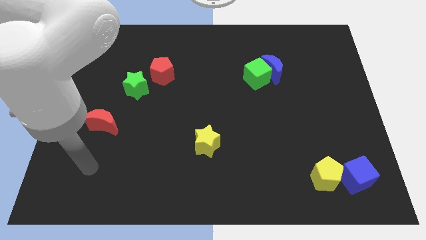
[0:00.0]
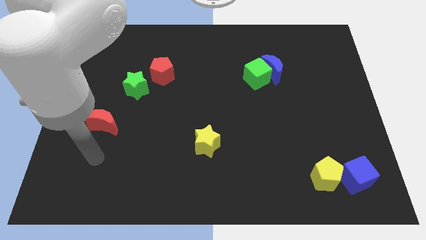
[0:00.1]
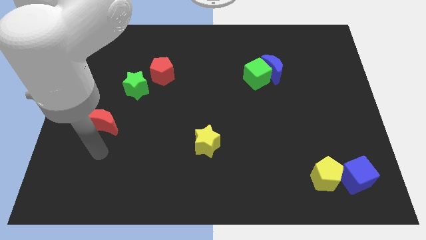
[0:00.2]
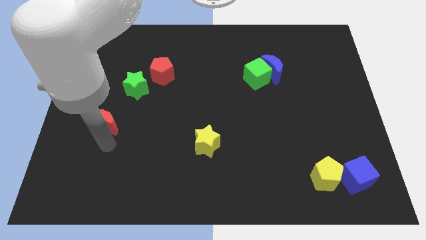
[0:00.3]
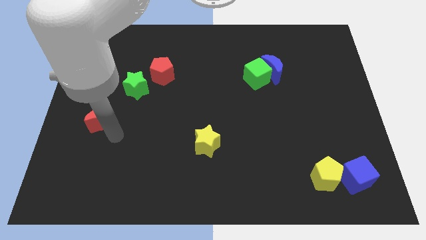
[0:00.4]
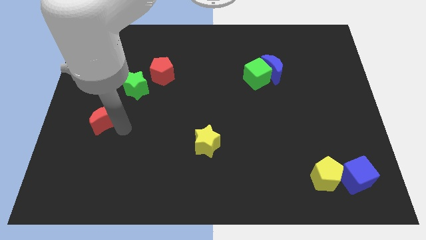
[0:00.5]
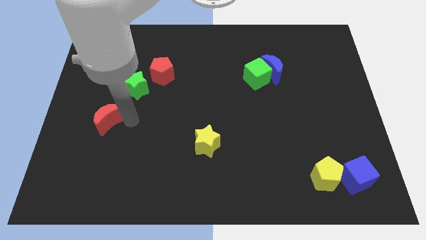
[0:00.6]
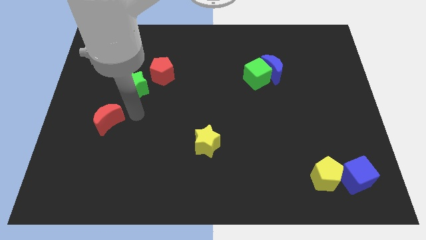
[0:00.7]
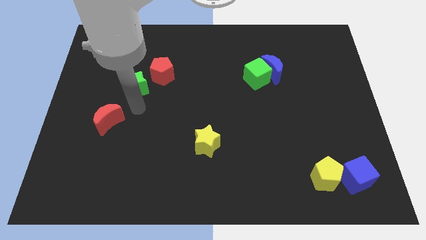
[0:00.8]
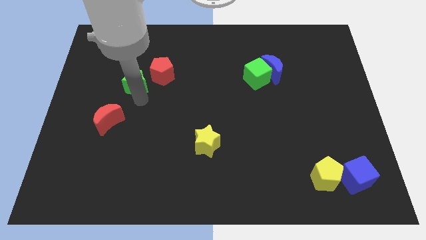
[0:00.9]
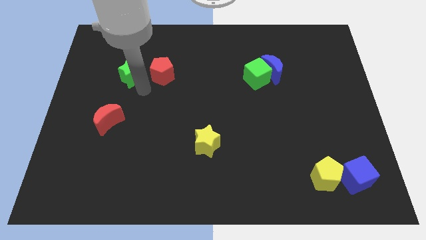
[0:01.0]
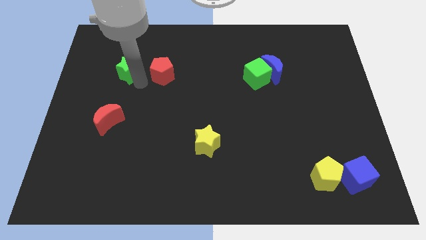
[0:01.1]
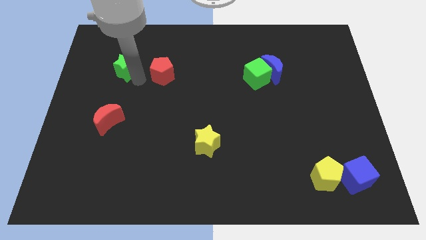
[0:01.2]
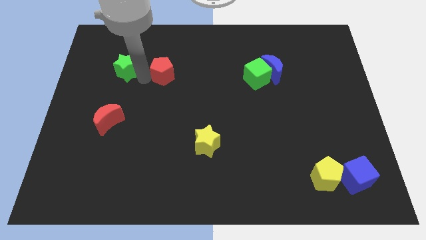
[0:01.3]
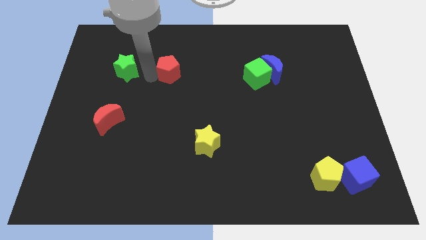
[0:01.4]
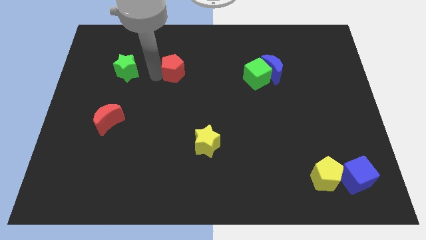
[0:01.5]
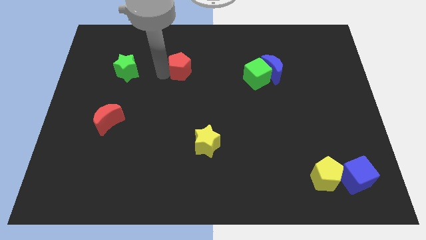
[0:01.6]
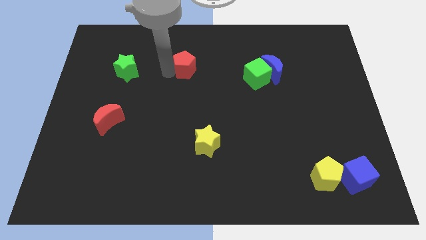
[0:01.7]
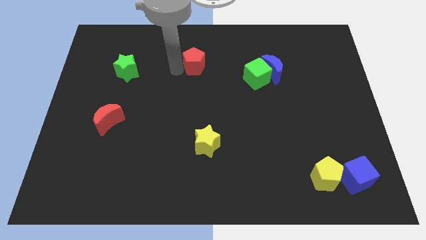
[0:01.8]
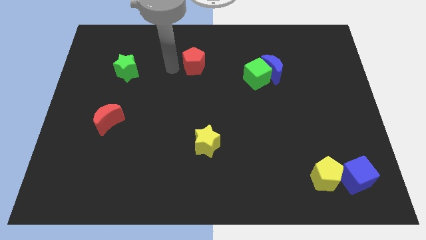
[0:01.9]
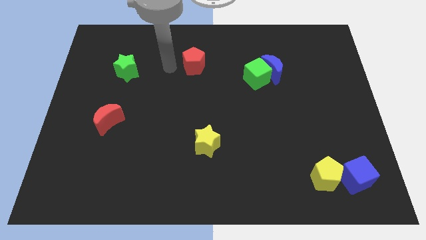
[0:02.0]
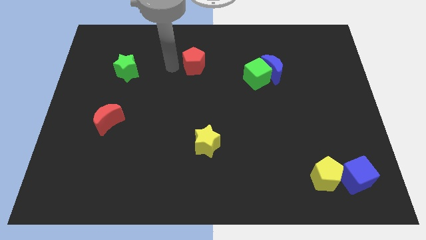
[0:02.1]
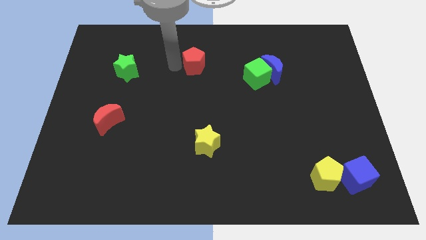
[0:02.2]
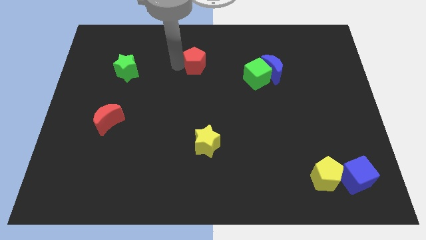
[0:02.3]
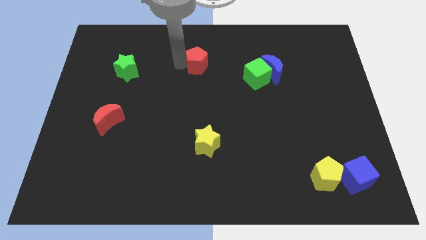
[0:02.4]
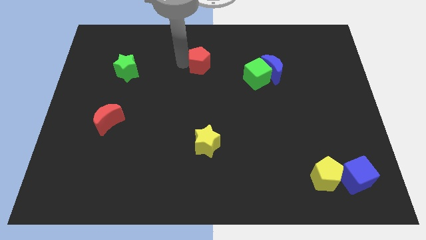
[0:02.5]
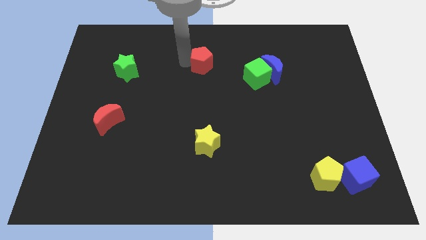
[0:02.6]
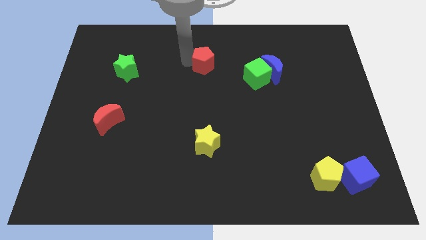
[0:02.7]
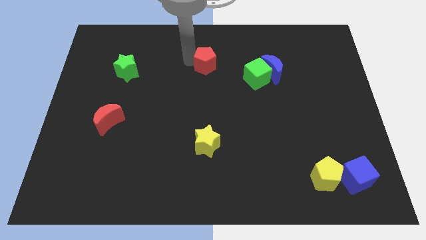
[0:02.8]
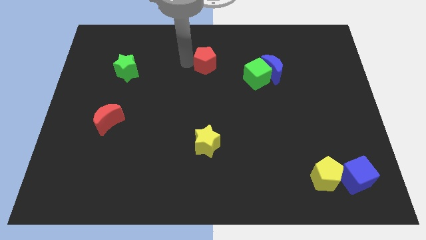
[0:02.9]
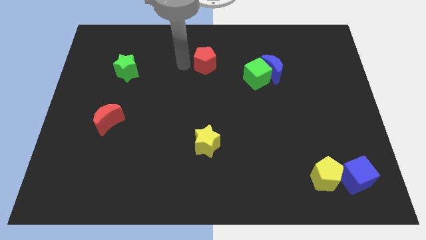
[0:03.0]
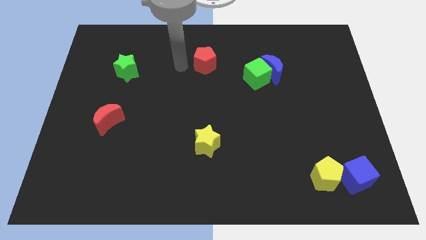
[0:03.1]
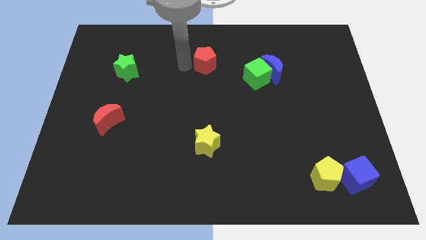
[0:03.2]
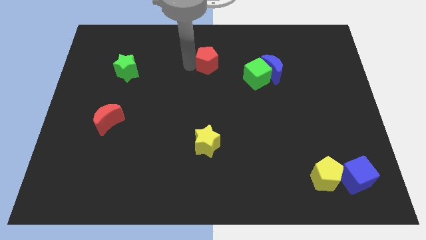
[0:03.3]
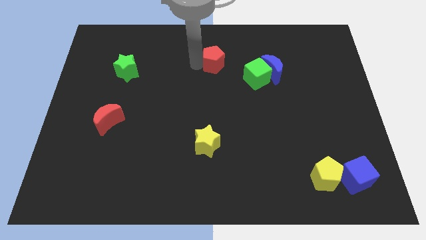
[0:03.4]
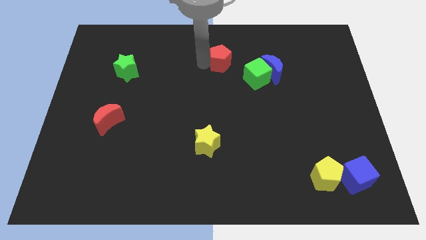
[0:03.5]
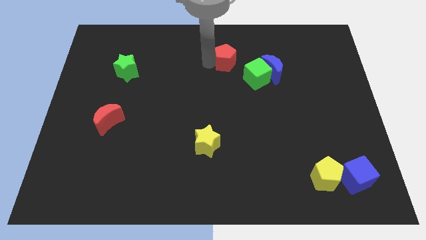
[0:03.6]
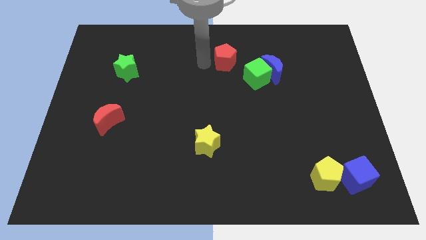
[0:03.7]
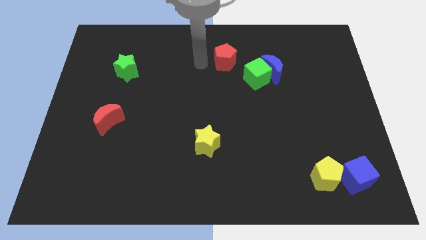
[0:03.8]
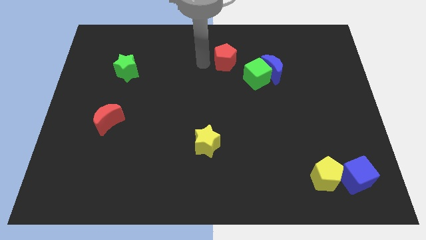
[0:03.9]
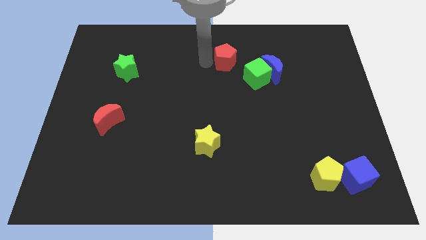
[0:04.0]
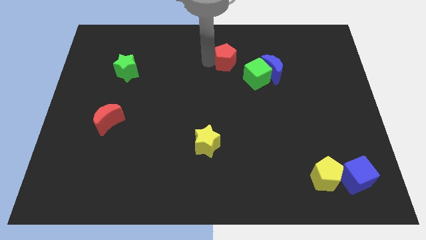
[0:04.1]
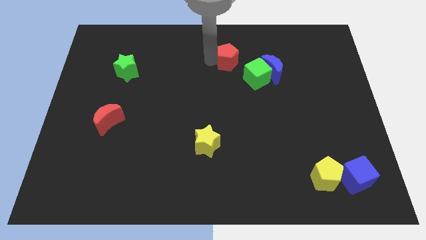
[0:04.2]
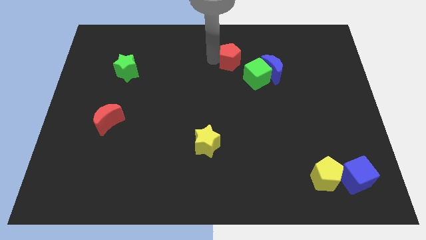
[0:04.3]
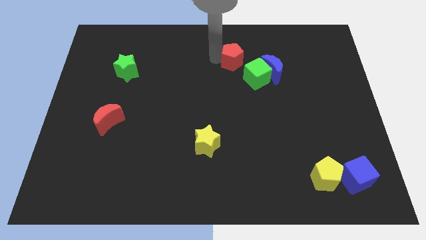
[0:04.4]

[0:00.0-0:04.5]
move the red pentagon to the top left of the blue moon

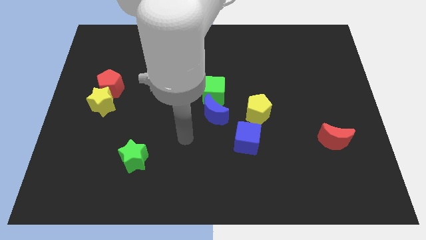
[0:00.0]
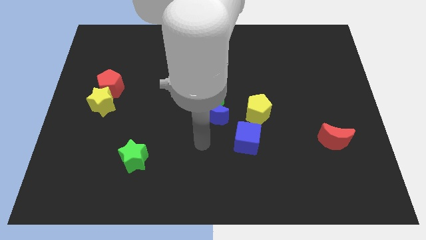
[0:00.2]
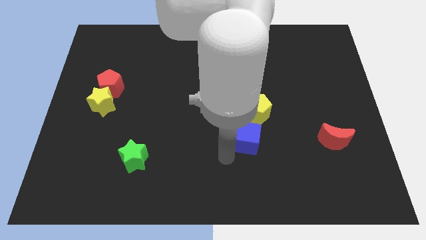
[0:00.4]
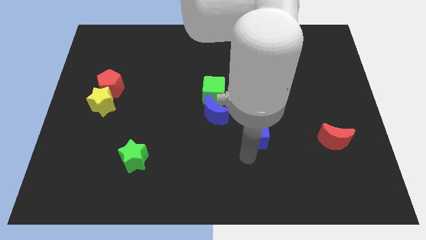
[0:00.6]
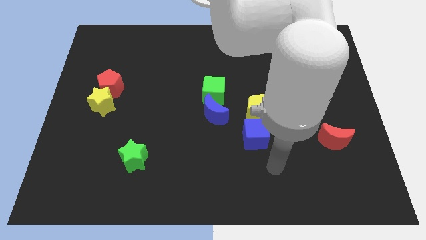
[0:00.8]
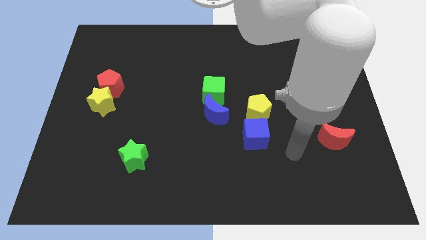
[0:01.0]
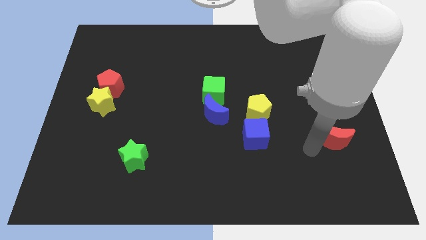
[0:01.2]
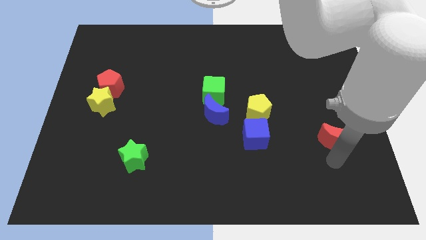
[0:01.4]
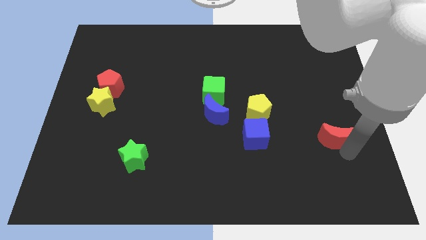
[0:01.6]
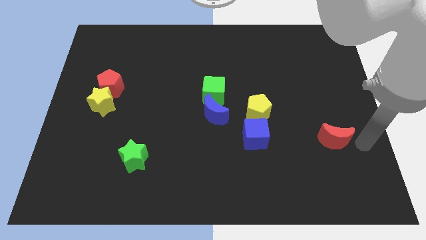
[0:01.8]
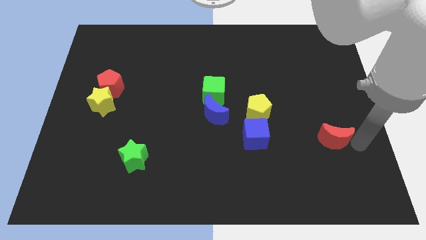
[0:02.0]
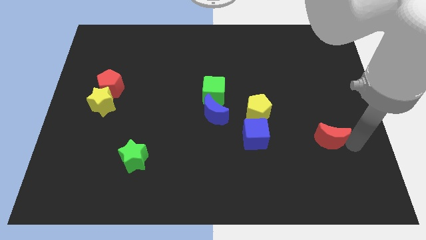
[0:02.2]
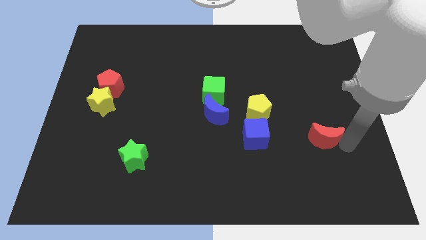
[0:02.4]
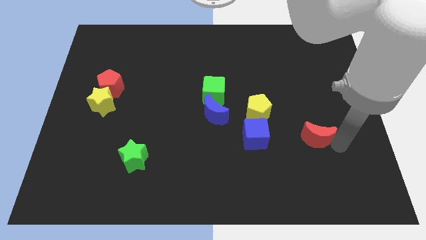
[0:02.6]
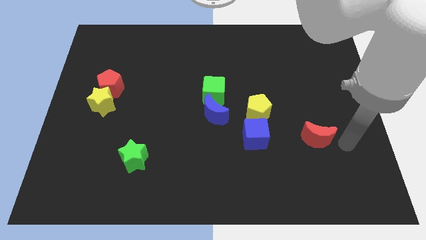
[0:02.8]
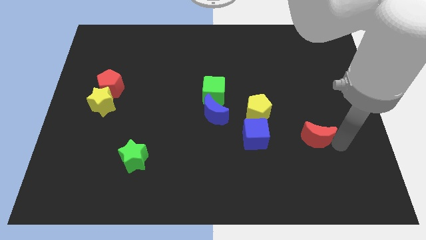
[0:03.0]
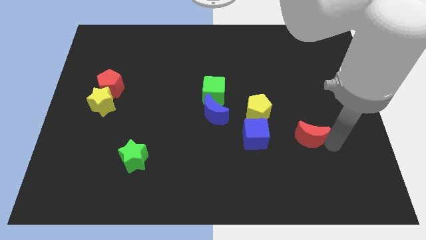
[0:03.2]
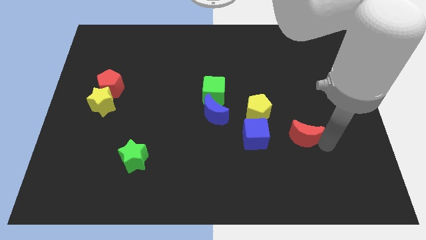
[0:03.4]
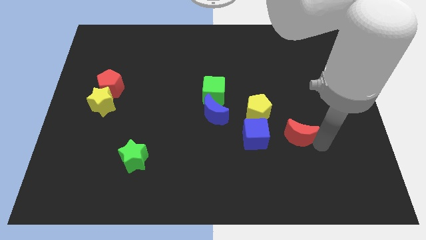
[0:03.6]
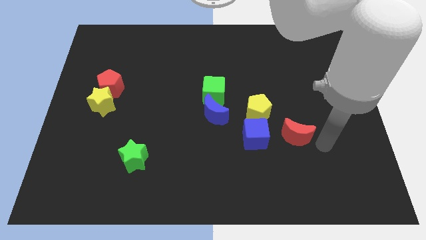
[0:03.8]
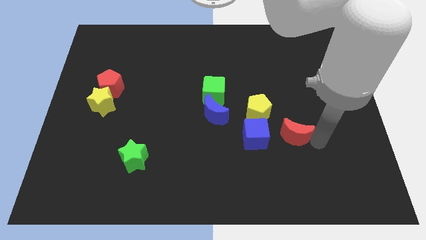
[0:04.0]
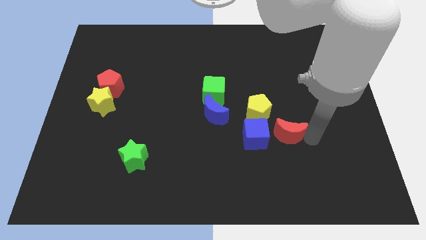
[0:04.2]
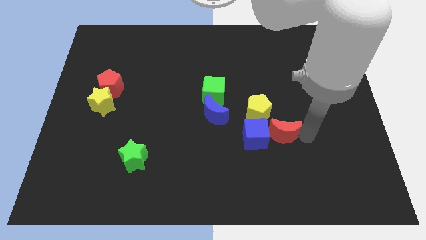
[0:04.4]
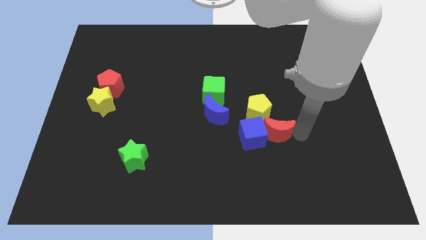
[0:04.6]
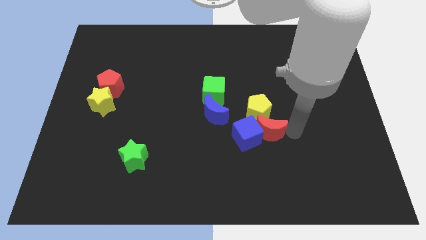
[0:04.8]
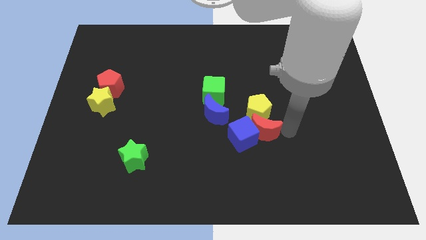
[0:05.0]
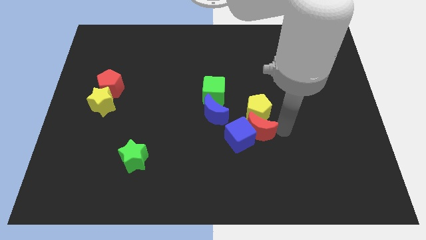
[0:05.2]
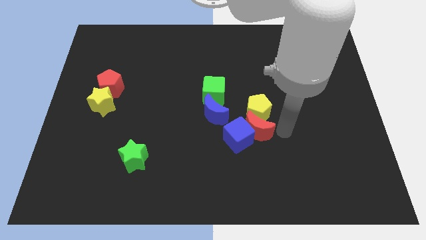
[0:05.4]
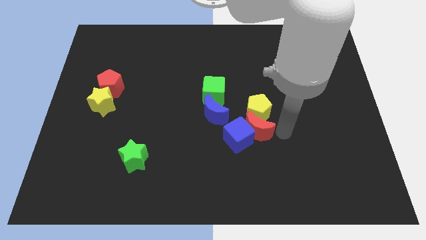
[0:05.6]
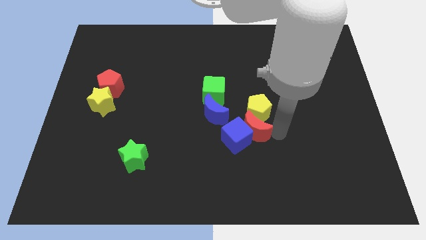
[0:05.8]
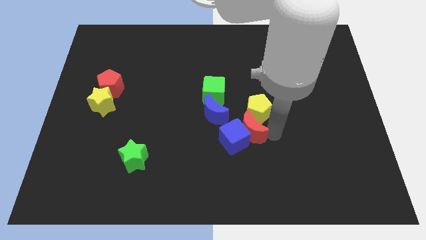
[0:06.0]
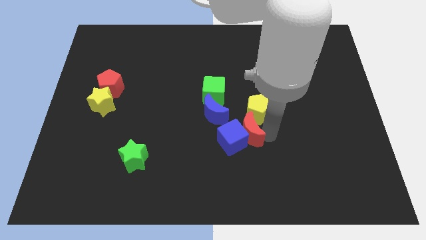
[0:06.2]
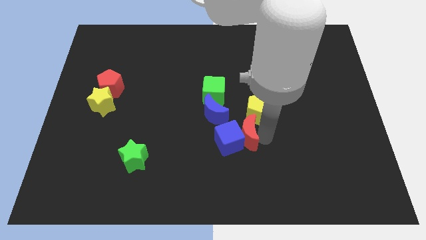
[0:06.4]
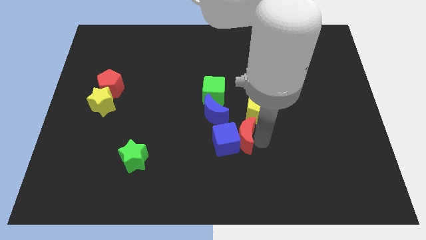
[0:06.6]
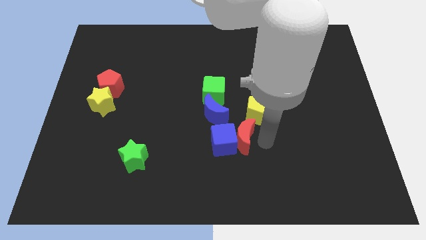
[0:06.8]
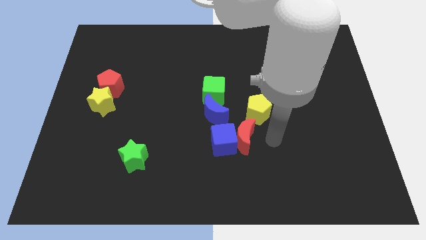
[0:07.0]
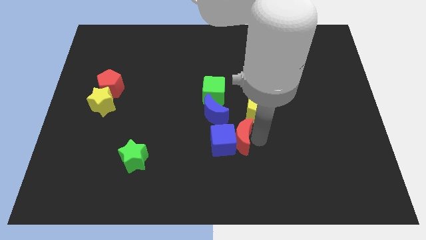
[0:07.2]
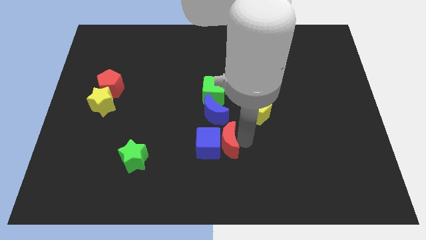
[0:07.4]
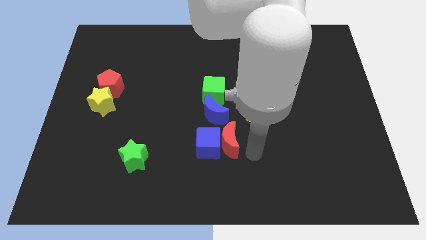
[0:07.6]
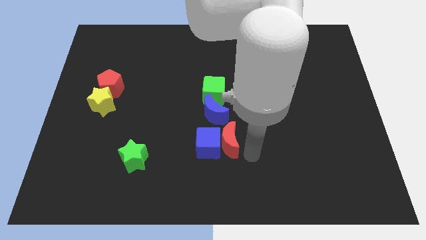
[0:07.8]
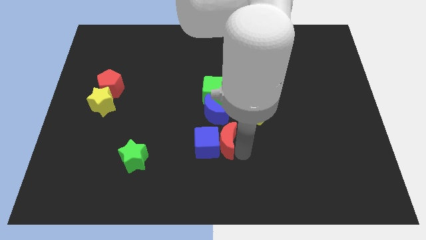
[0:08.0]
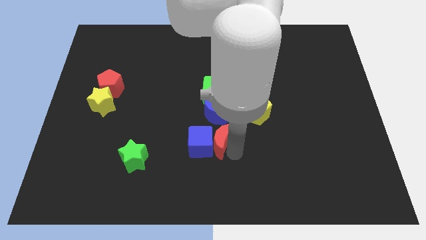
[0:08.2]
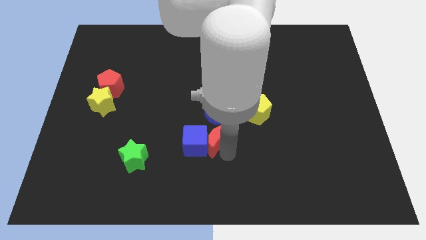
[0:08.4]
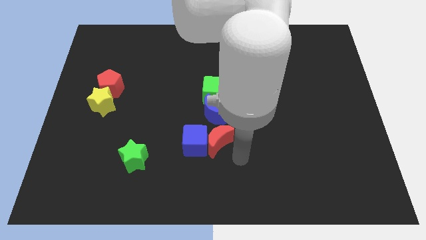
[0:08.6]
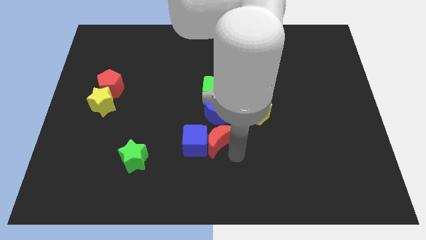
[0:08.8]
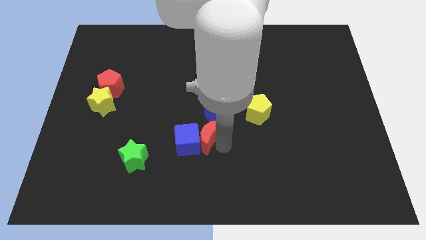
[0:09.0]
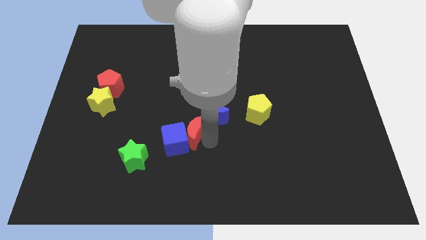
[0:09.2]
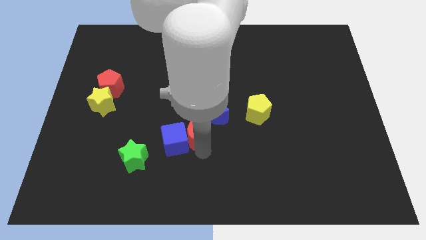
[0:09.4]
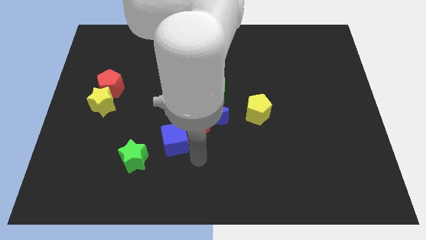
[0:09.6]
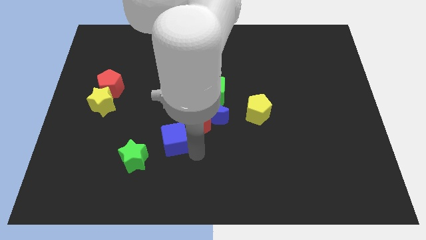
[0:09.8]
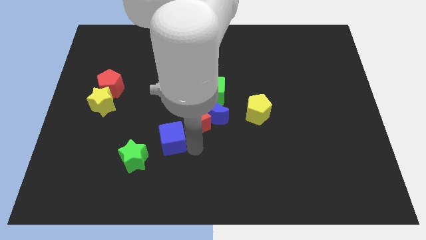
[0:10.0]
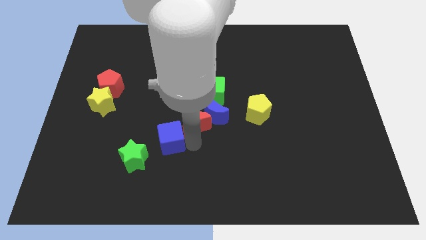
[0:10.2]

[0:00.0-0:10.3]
slide the red moon to the left of the yellow pentagon
